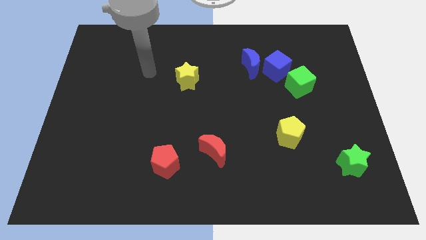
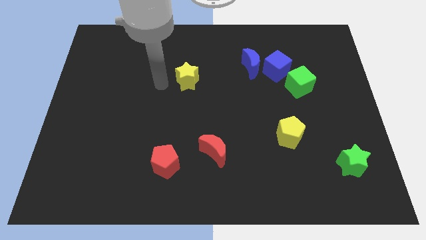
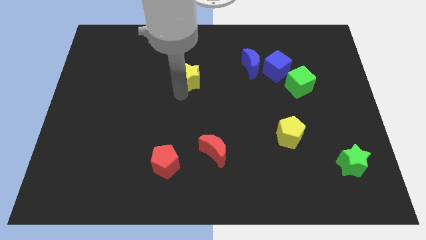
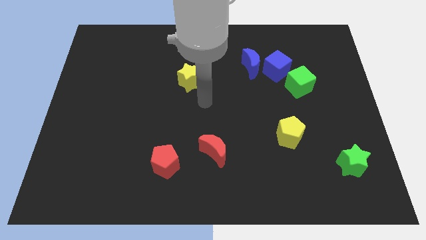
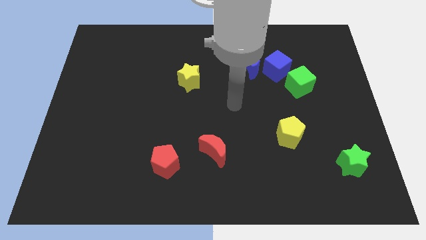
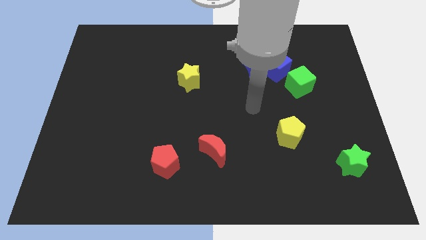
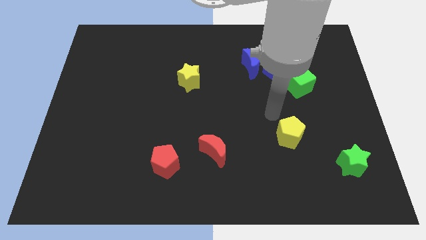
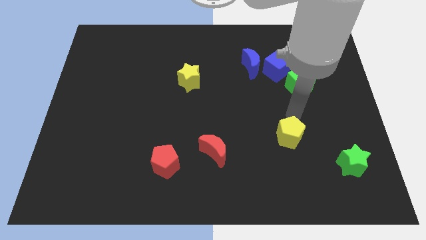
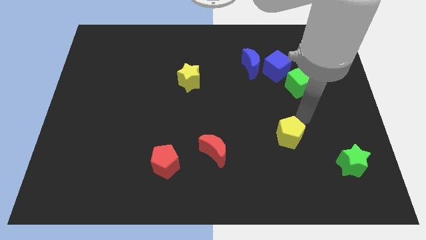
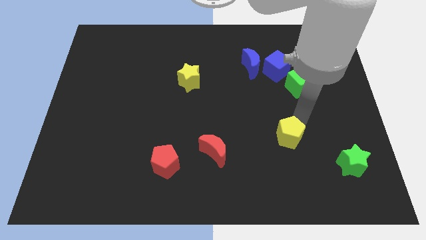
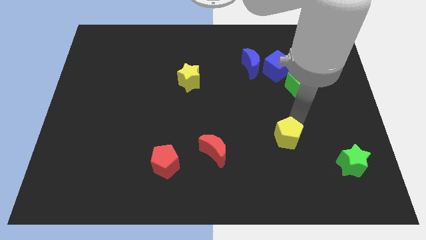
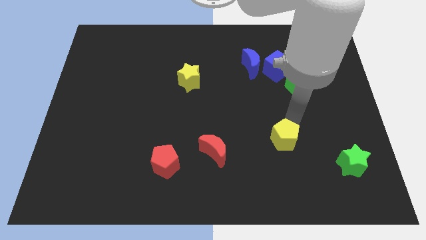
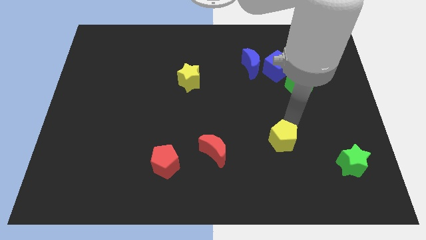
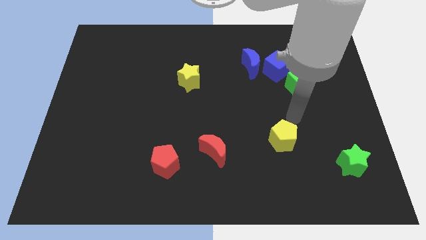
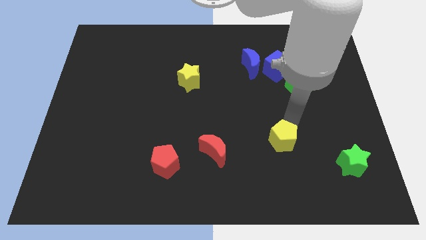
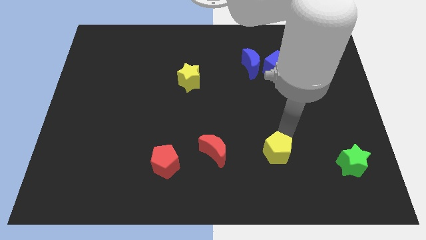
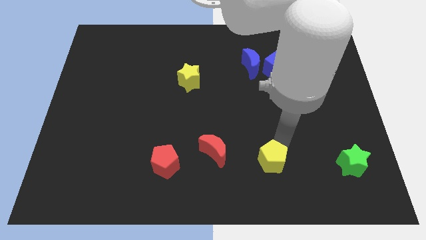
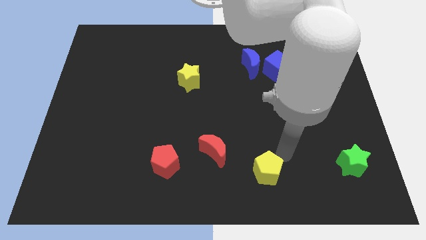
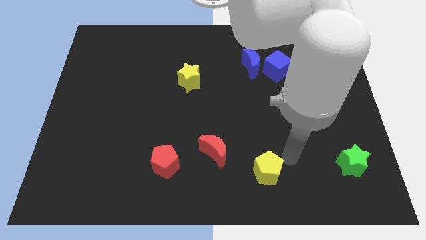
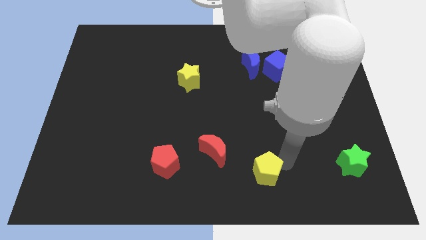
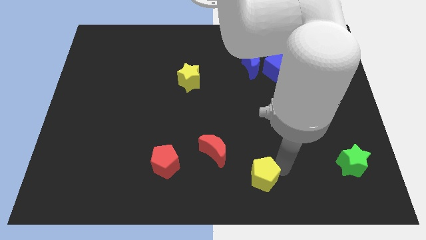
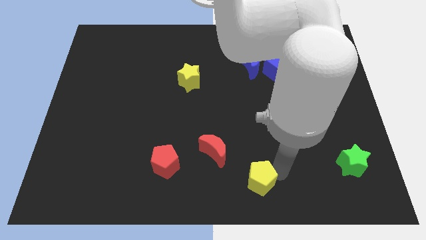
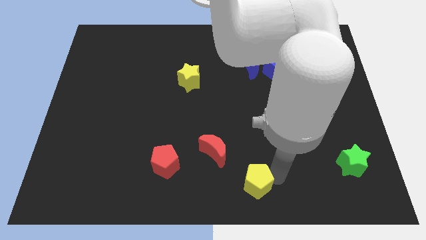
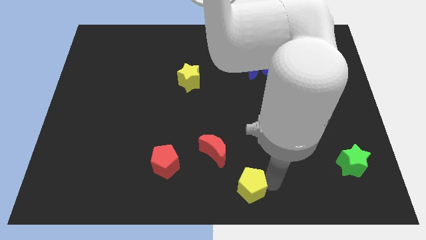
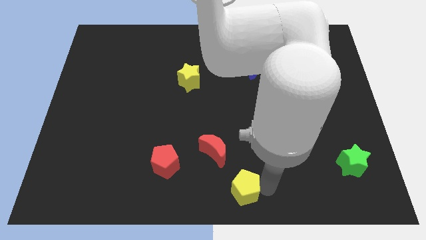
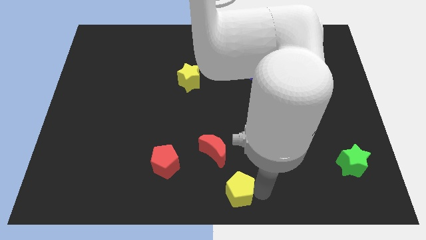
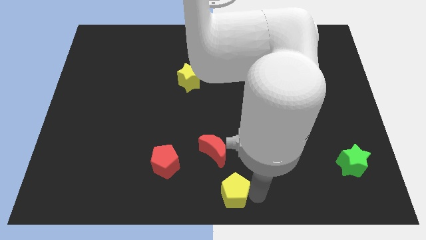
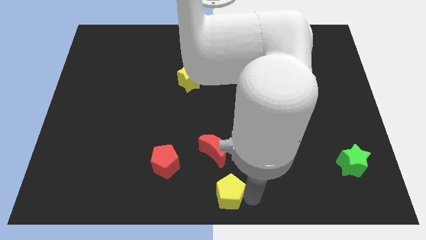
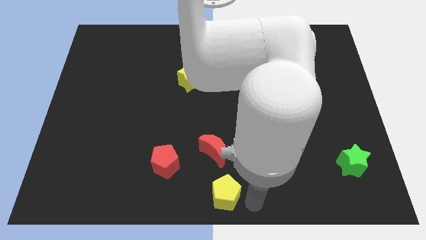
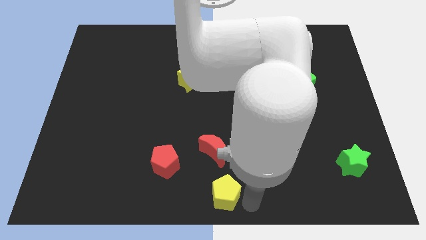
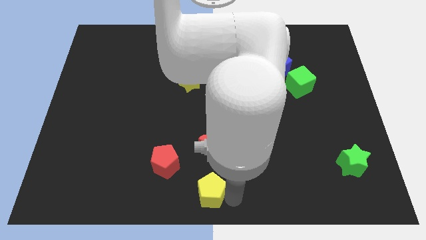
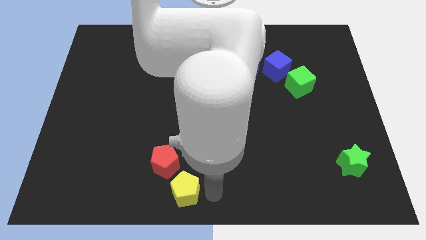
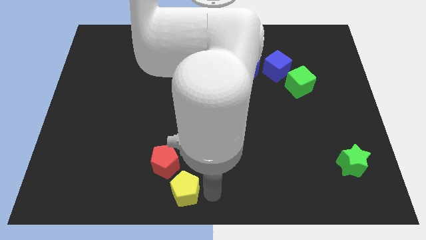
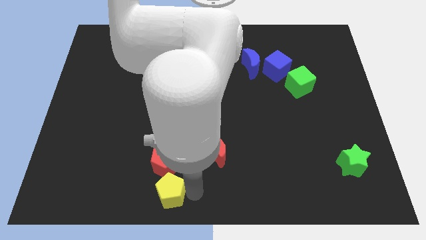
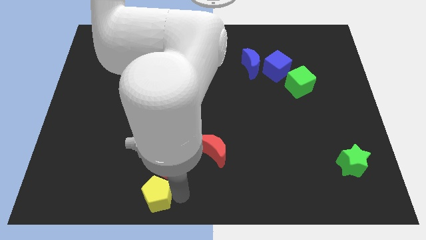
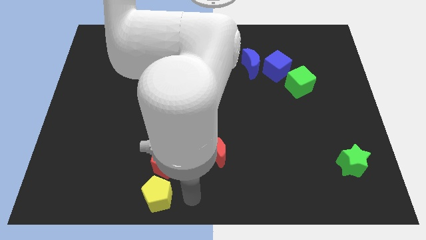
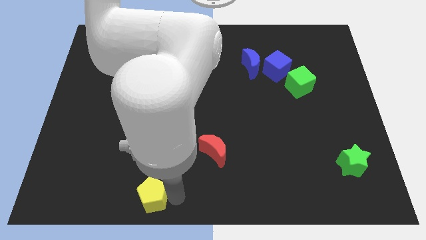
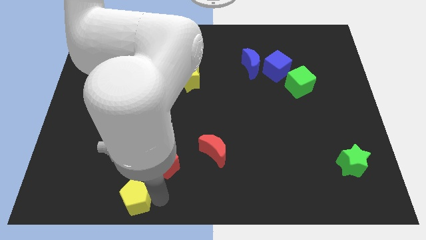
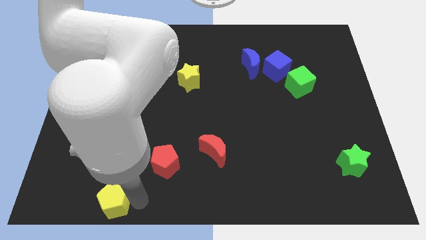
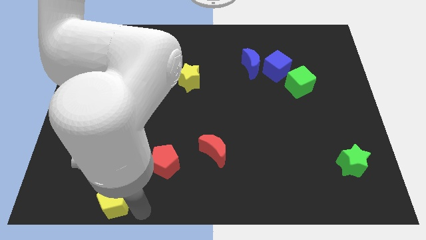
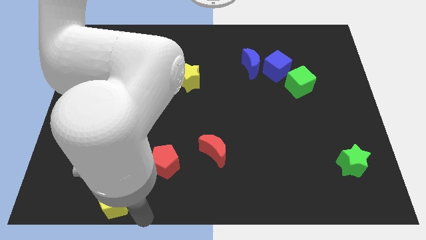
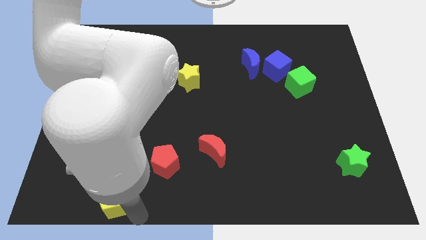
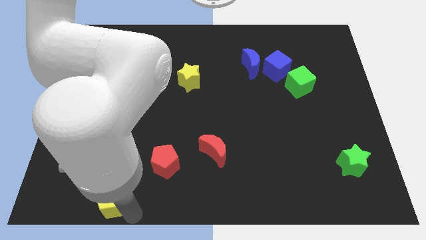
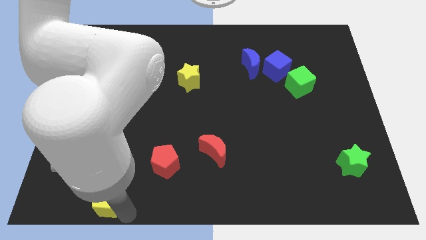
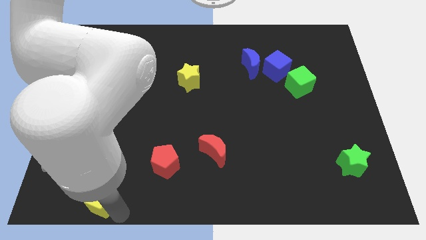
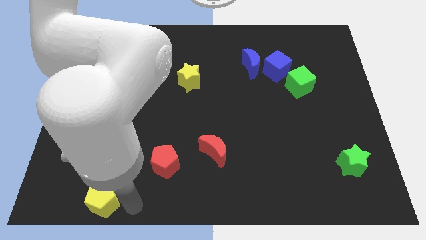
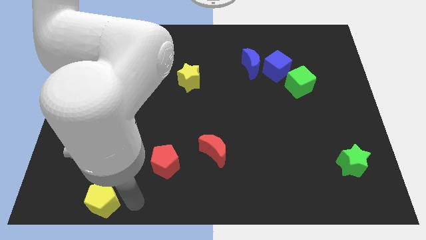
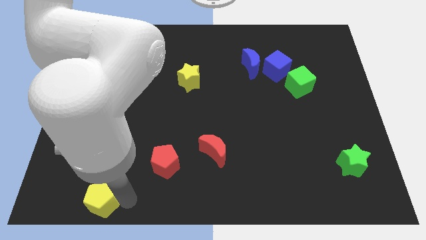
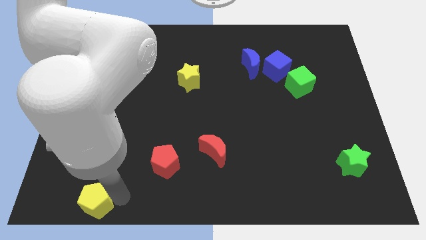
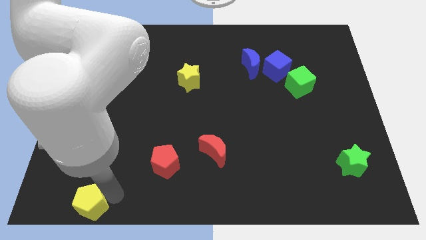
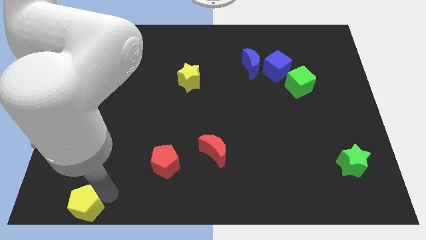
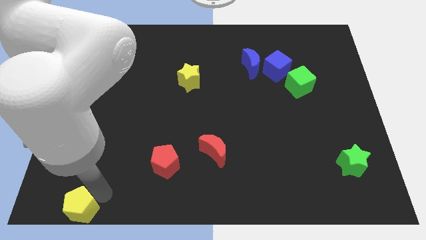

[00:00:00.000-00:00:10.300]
move the yellow pentagon to the bottom left

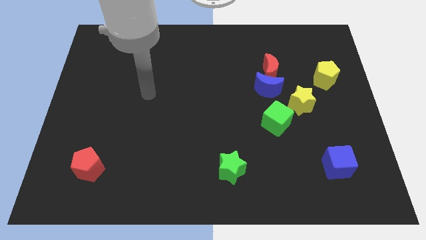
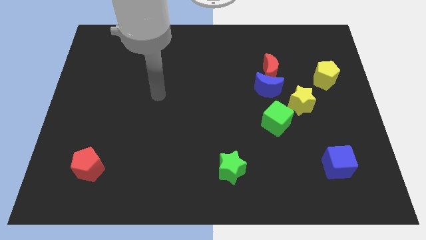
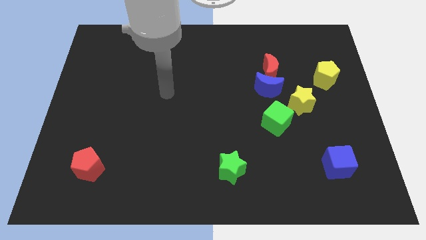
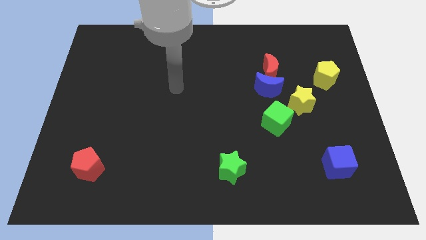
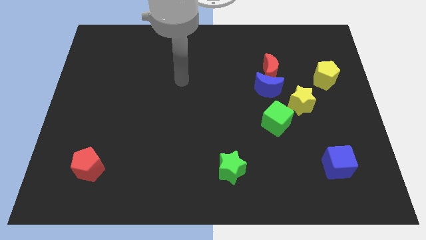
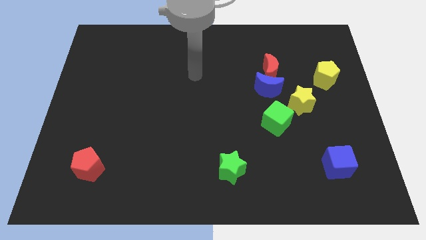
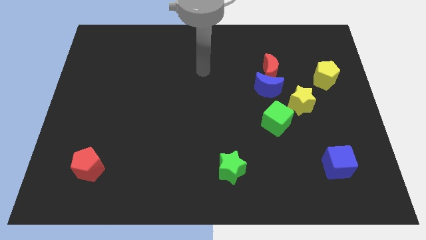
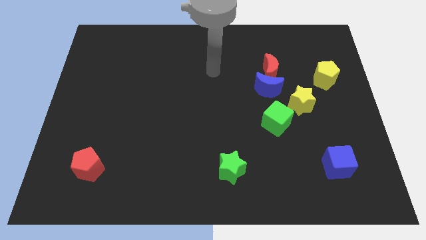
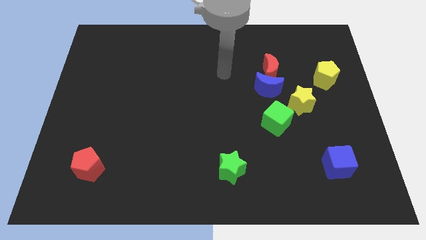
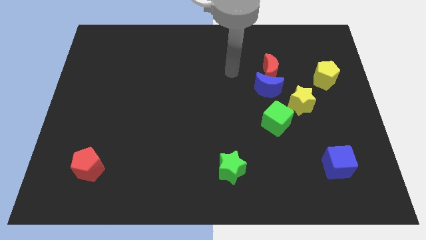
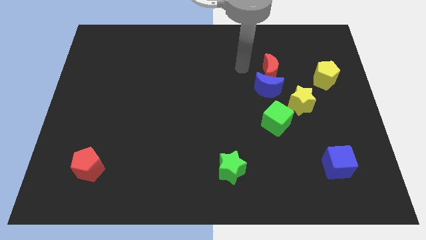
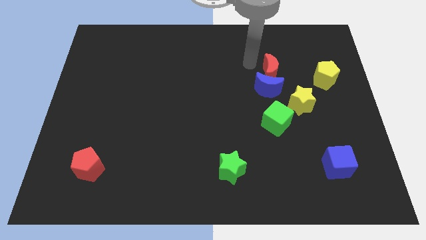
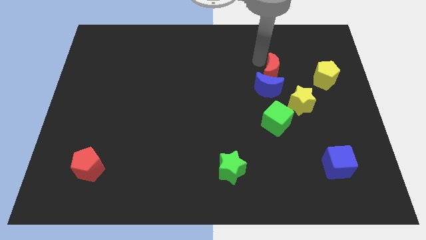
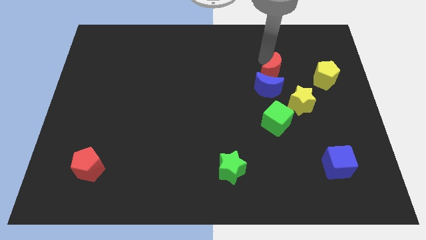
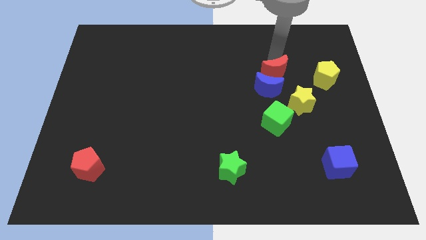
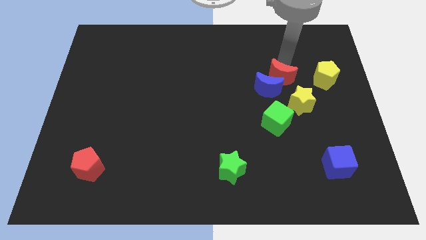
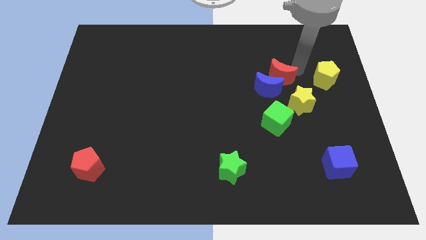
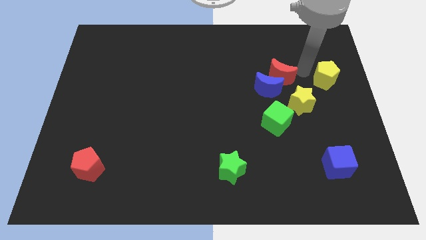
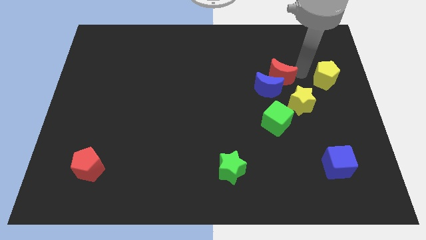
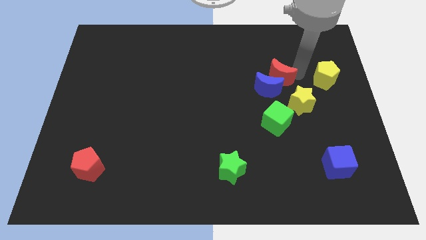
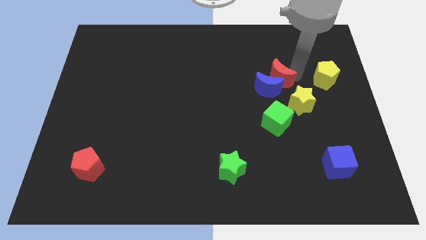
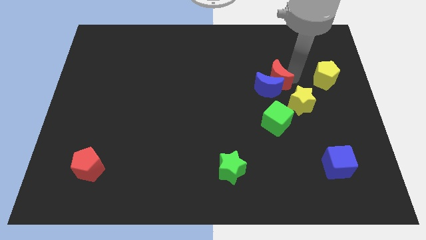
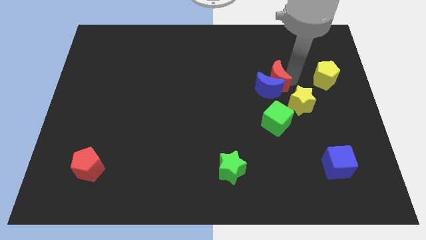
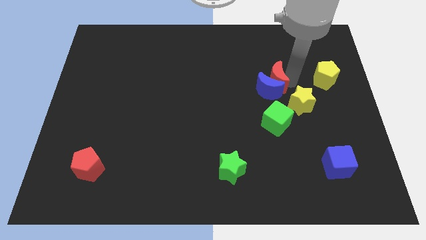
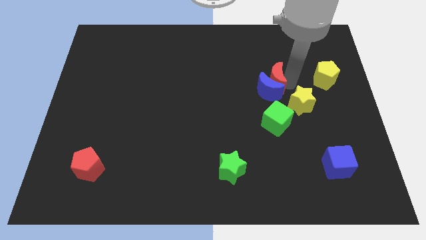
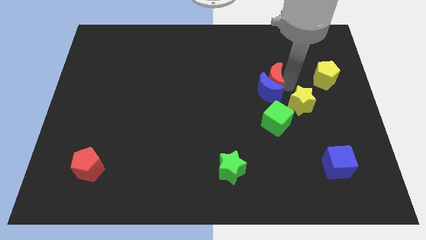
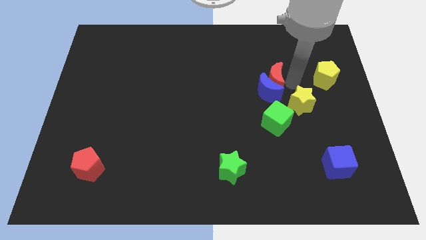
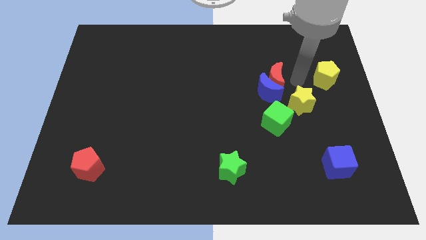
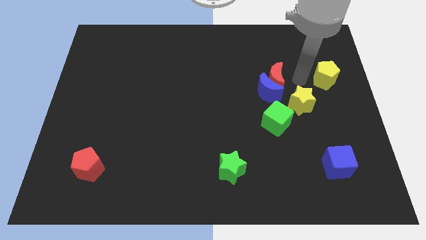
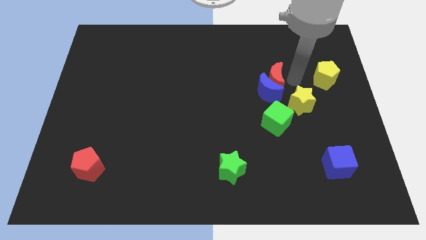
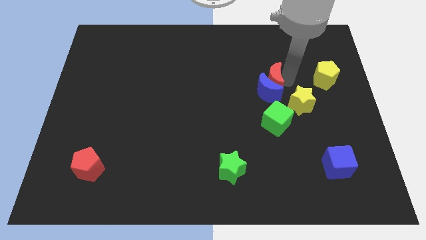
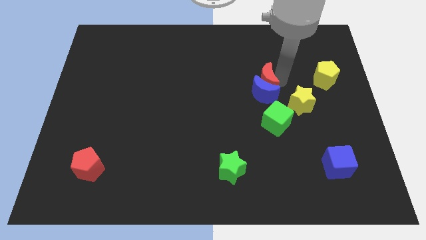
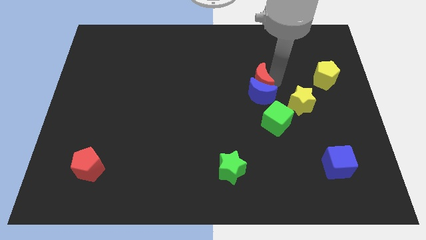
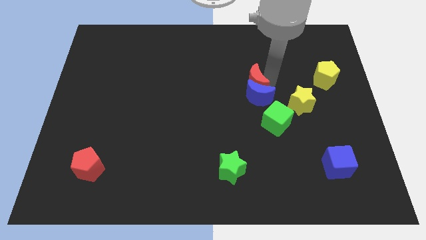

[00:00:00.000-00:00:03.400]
push the red moon to the center of the board
